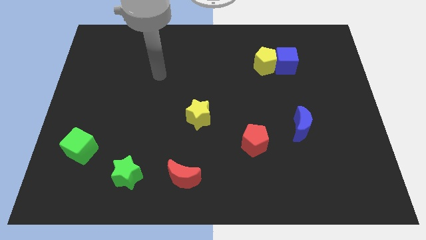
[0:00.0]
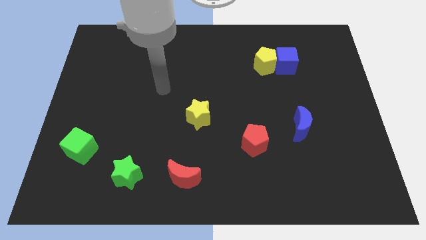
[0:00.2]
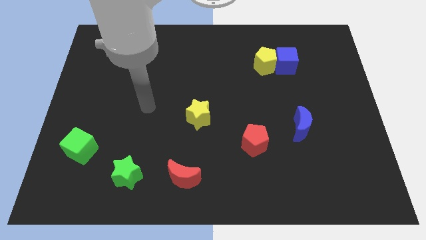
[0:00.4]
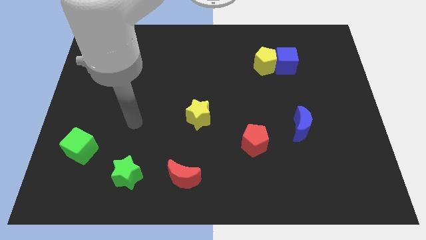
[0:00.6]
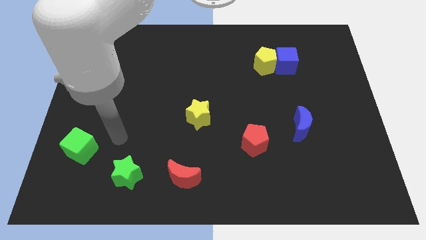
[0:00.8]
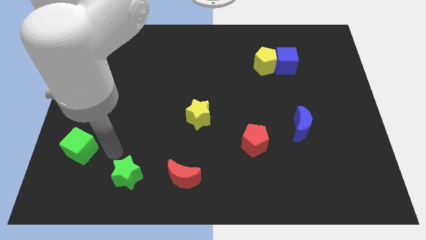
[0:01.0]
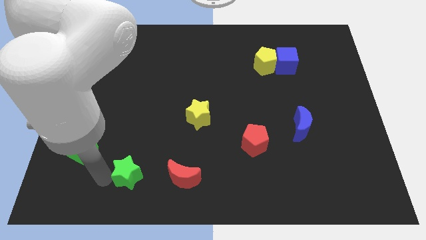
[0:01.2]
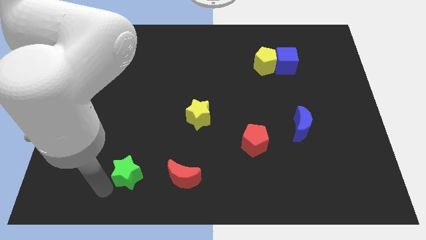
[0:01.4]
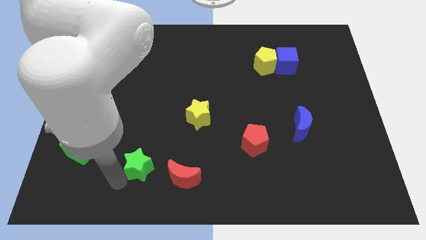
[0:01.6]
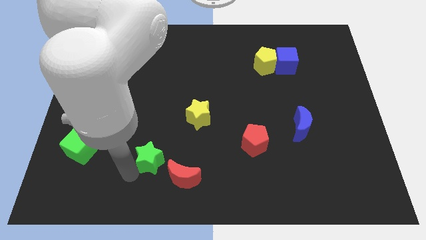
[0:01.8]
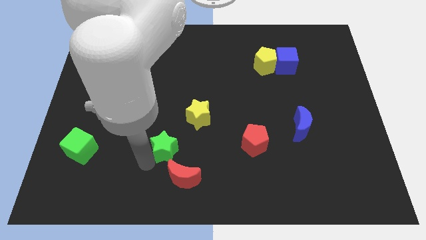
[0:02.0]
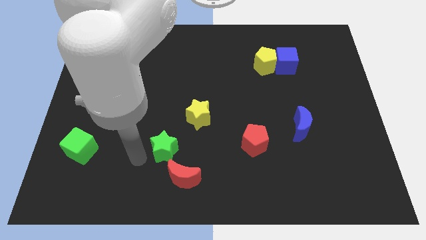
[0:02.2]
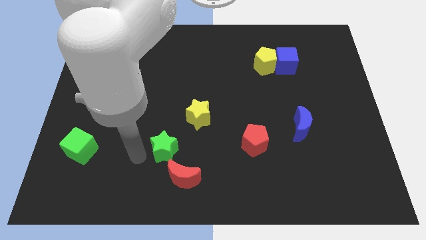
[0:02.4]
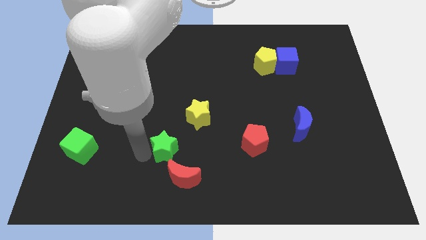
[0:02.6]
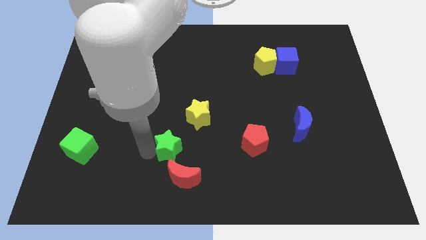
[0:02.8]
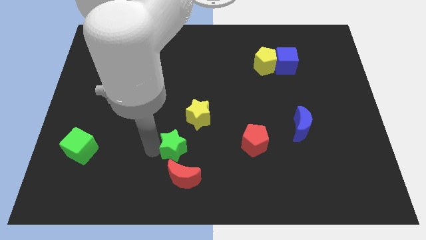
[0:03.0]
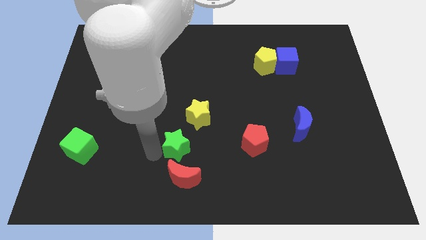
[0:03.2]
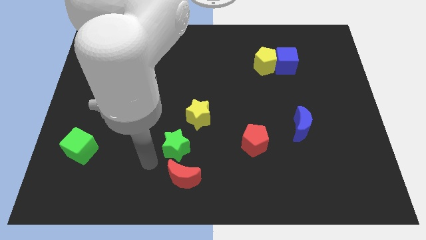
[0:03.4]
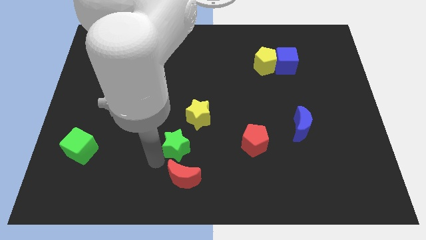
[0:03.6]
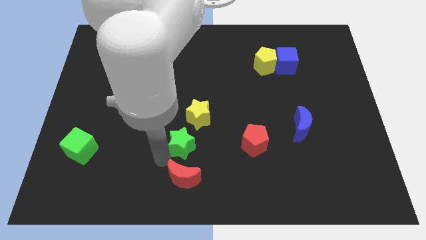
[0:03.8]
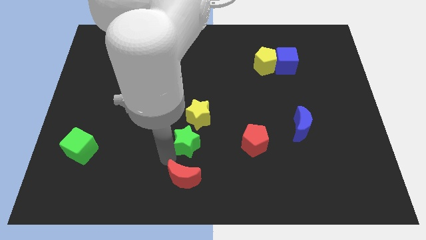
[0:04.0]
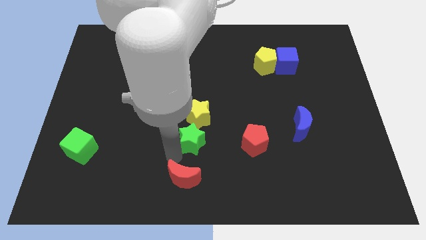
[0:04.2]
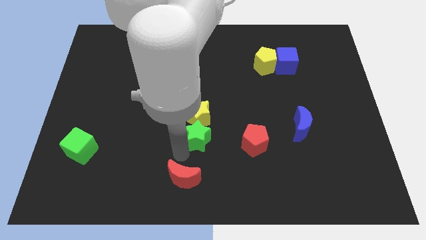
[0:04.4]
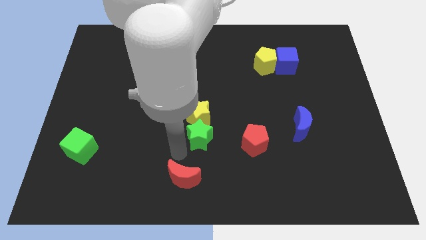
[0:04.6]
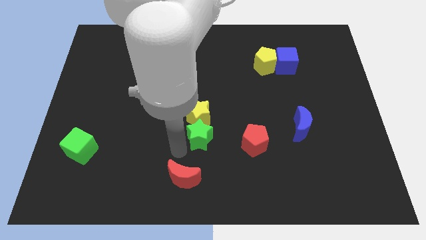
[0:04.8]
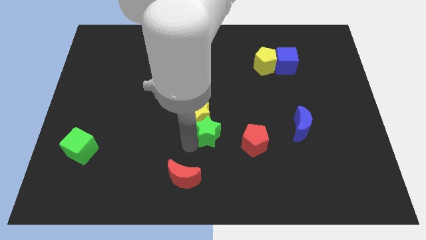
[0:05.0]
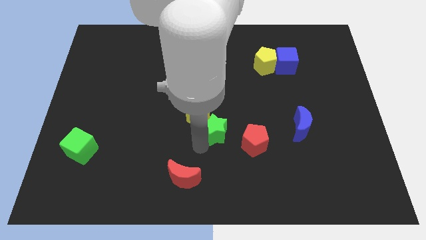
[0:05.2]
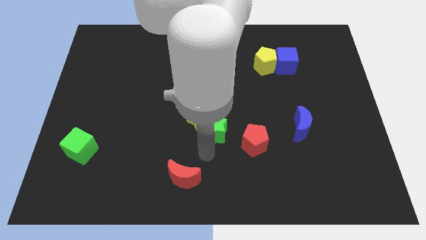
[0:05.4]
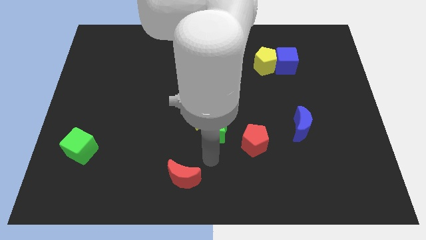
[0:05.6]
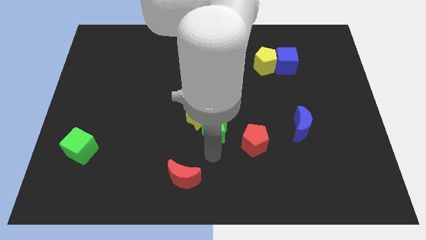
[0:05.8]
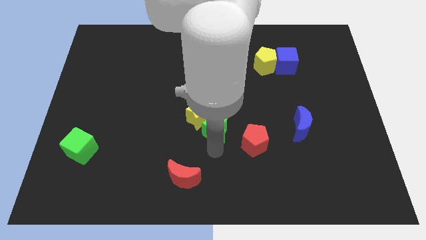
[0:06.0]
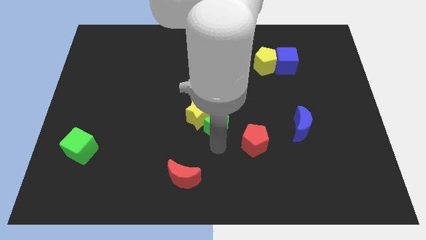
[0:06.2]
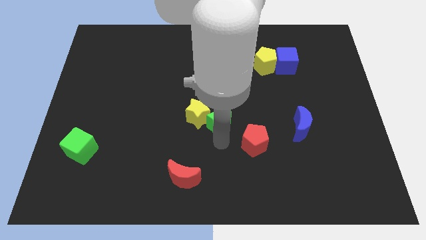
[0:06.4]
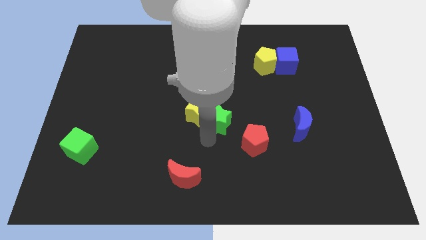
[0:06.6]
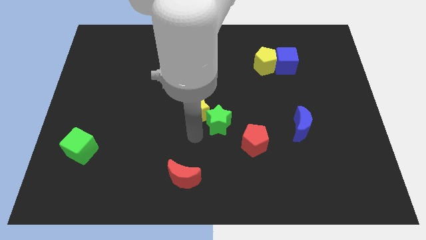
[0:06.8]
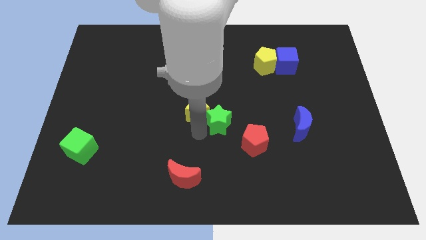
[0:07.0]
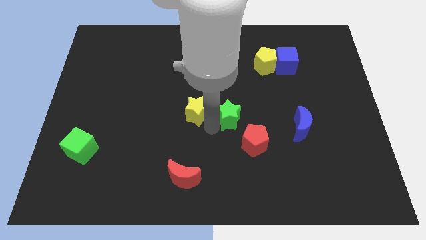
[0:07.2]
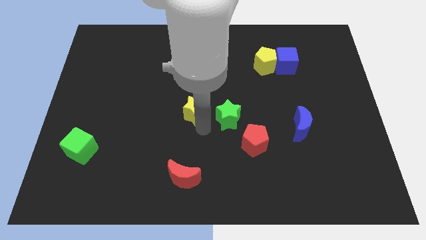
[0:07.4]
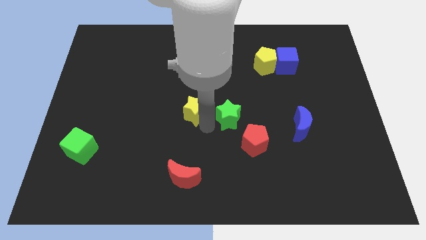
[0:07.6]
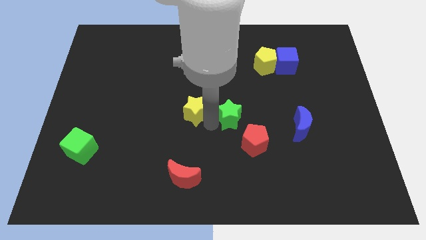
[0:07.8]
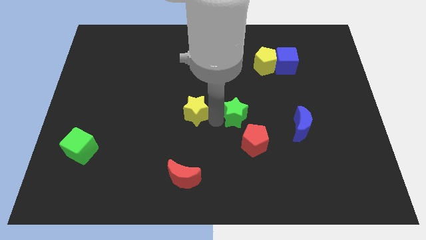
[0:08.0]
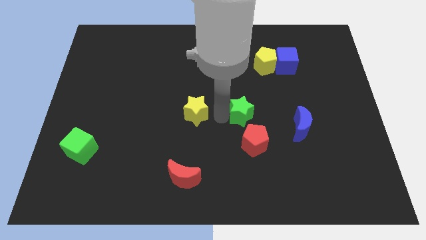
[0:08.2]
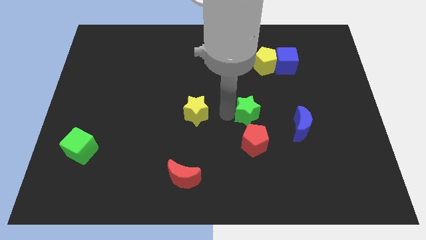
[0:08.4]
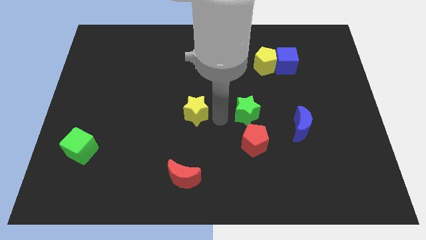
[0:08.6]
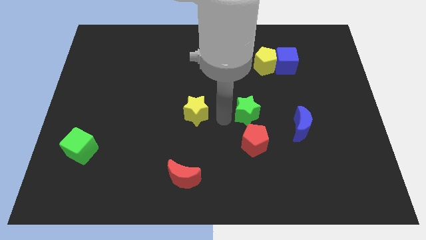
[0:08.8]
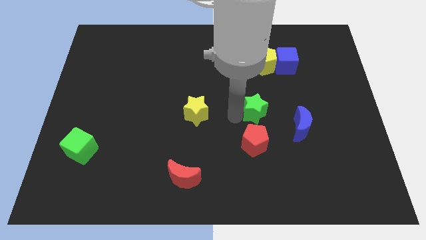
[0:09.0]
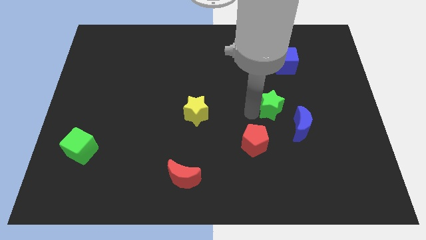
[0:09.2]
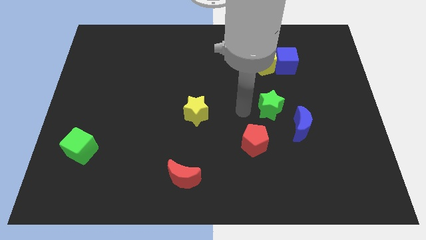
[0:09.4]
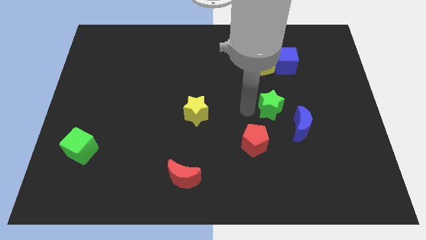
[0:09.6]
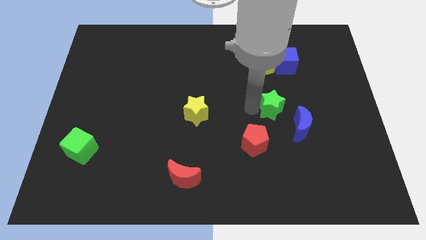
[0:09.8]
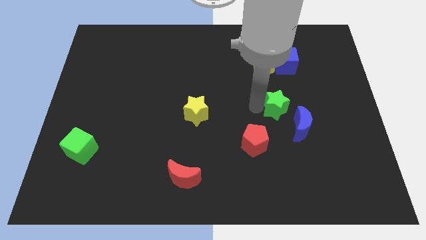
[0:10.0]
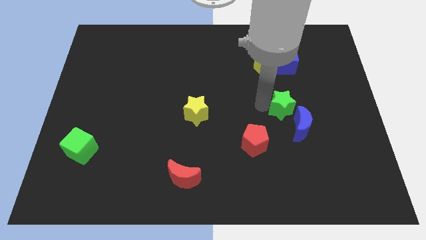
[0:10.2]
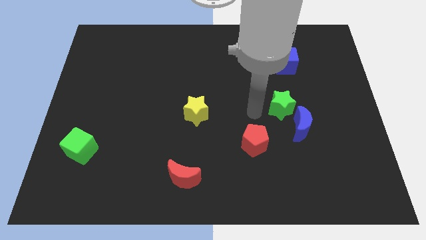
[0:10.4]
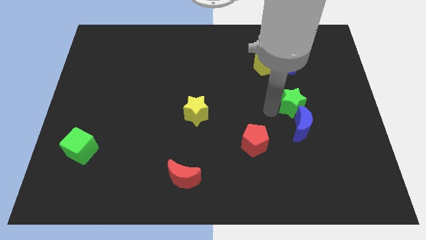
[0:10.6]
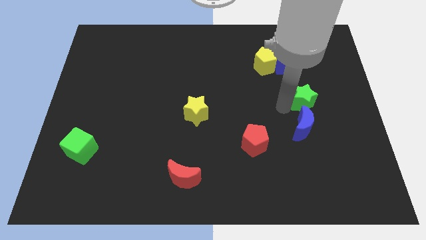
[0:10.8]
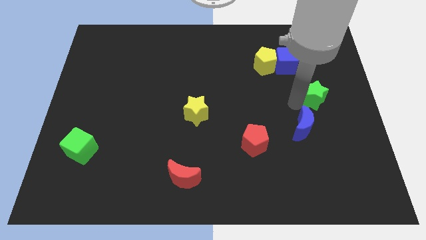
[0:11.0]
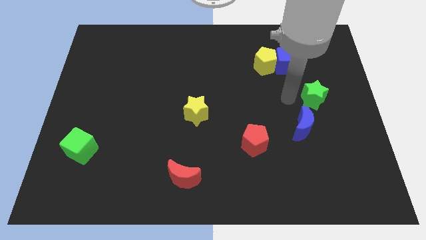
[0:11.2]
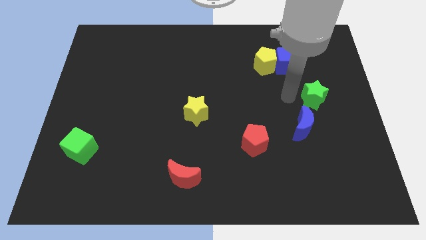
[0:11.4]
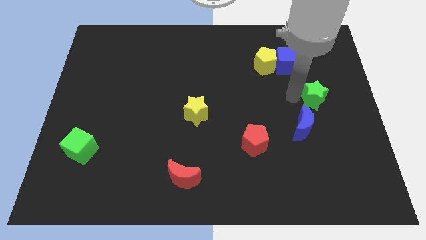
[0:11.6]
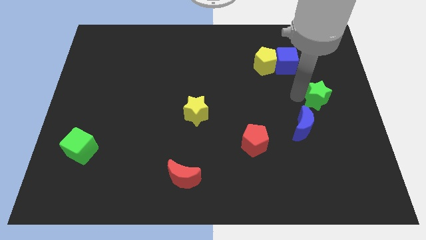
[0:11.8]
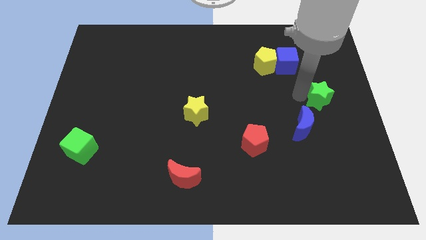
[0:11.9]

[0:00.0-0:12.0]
put the green star to the center right
